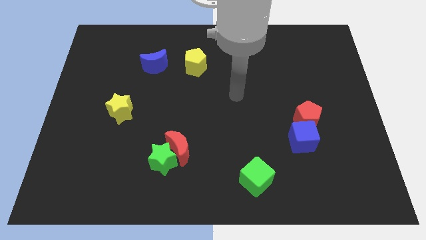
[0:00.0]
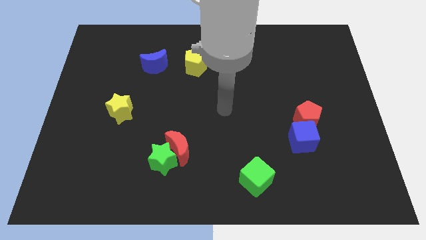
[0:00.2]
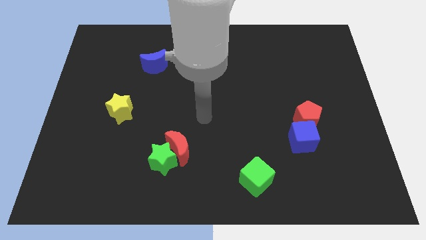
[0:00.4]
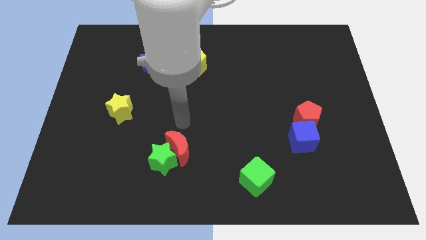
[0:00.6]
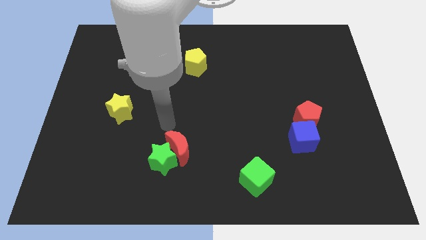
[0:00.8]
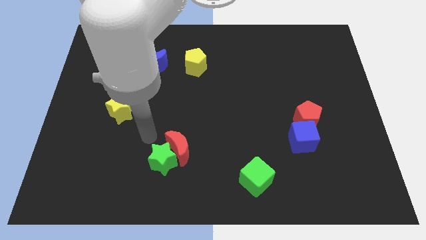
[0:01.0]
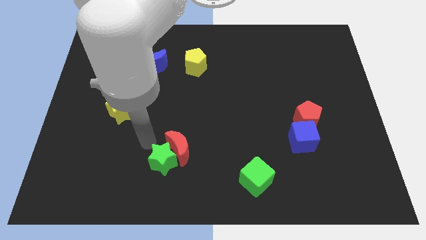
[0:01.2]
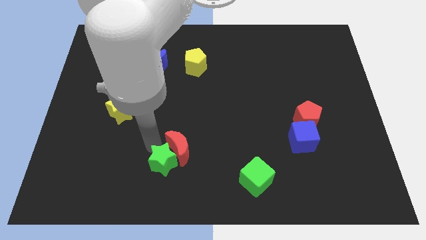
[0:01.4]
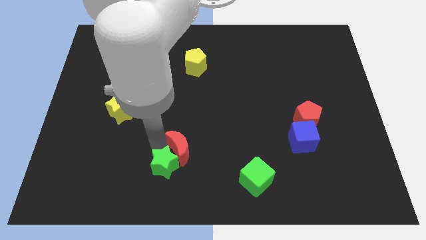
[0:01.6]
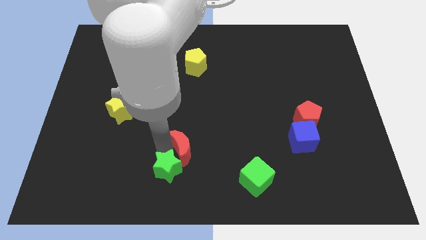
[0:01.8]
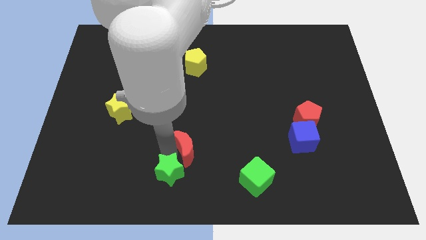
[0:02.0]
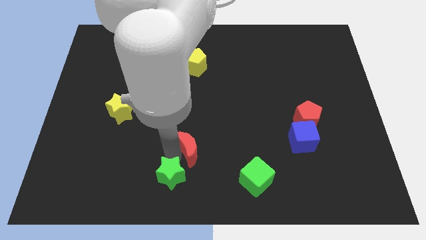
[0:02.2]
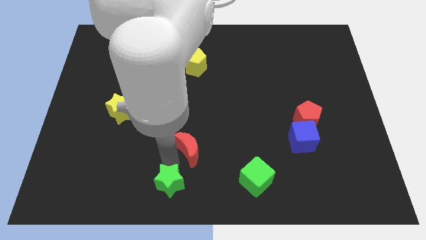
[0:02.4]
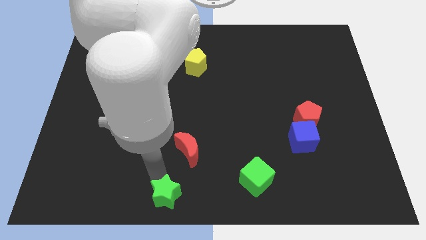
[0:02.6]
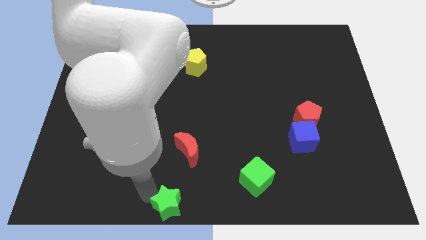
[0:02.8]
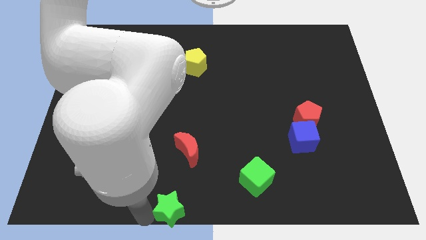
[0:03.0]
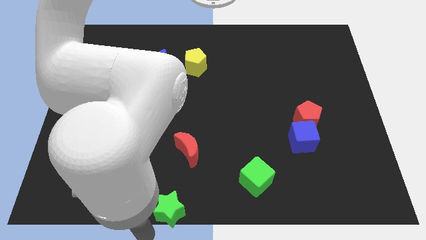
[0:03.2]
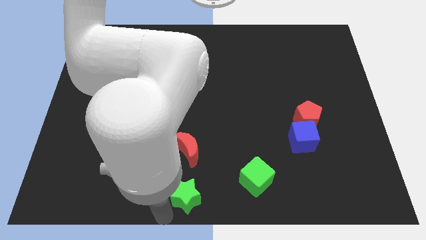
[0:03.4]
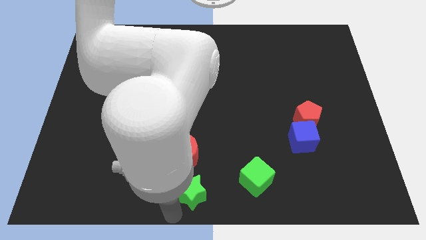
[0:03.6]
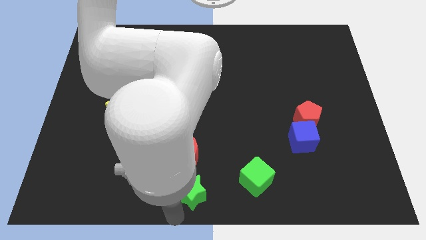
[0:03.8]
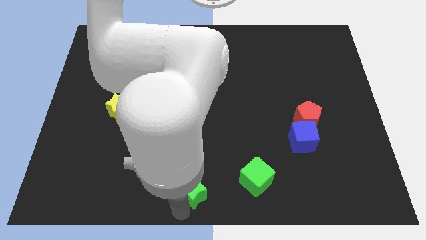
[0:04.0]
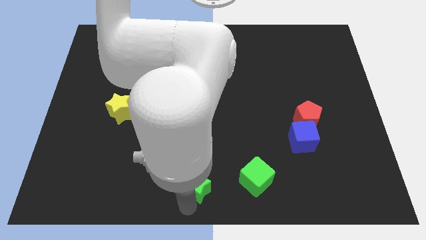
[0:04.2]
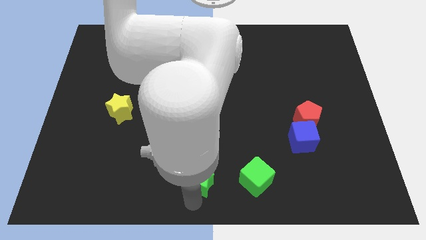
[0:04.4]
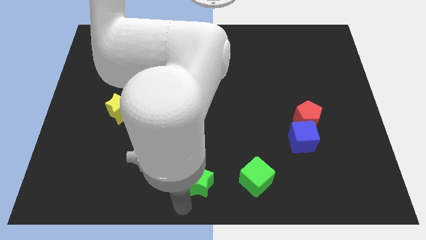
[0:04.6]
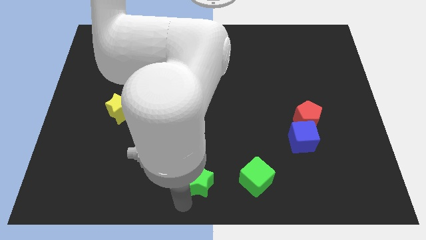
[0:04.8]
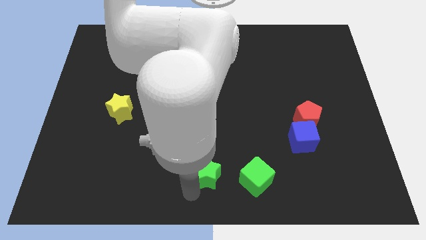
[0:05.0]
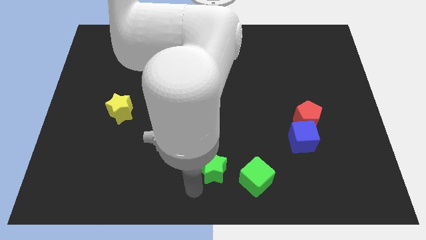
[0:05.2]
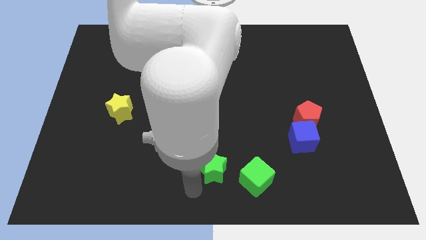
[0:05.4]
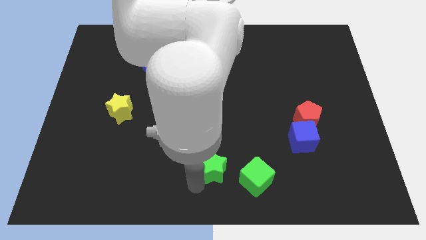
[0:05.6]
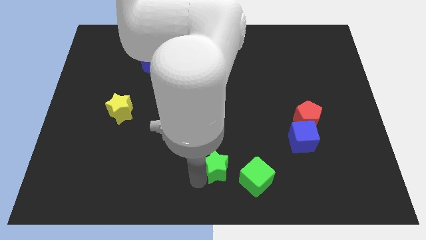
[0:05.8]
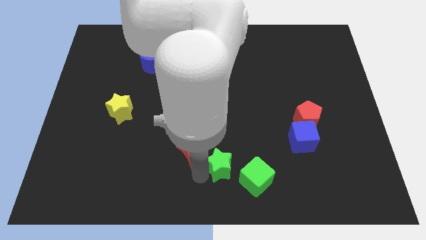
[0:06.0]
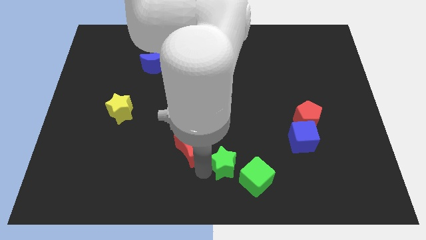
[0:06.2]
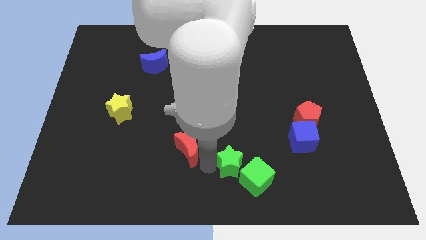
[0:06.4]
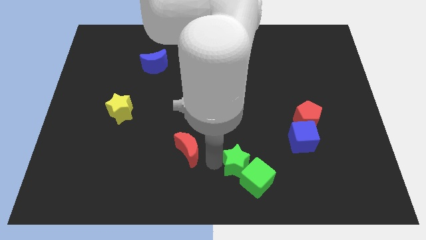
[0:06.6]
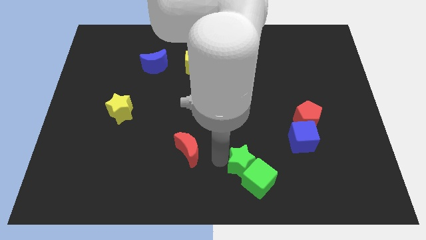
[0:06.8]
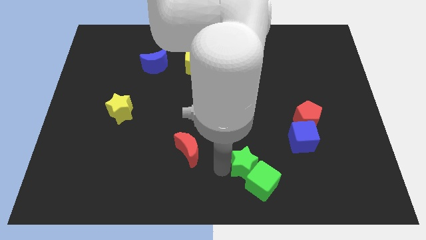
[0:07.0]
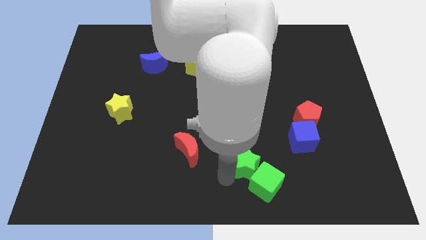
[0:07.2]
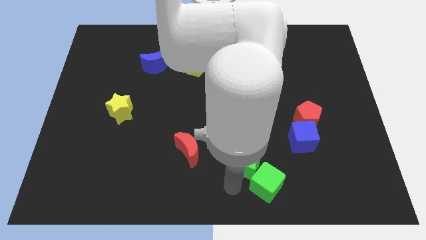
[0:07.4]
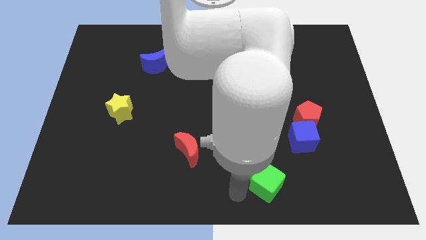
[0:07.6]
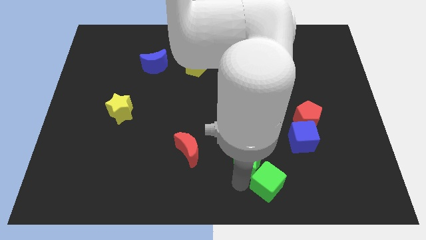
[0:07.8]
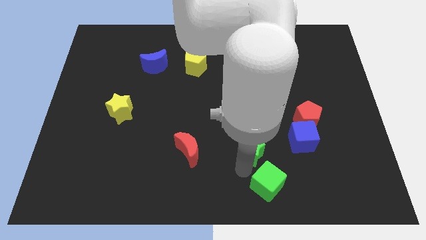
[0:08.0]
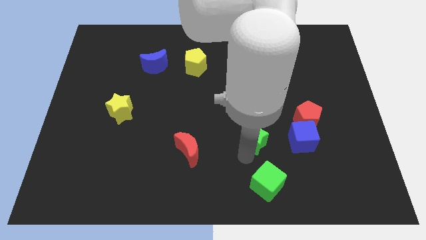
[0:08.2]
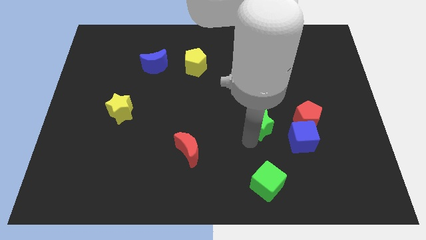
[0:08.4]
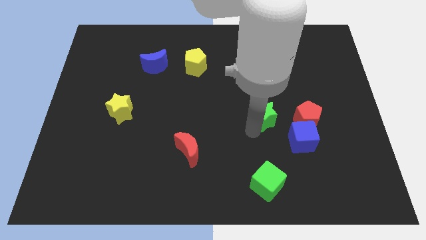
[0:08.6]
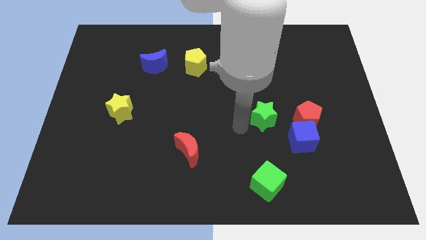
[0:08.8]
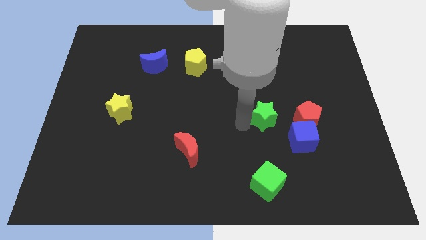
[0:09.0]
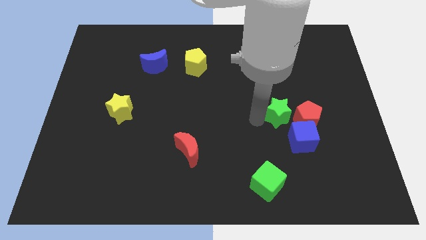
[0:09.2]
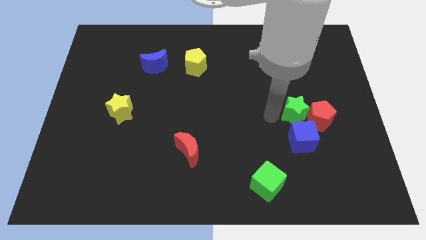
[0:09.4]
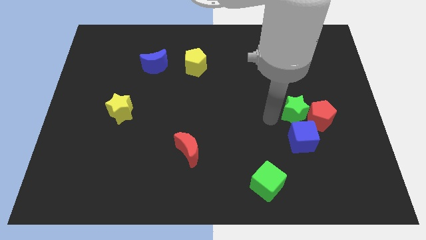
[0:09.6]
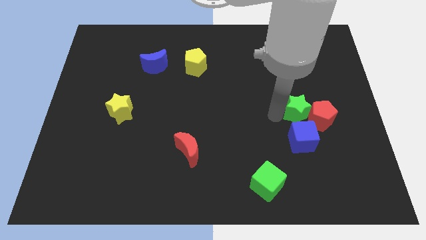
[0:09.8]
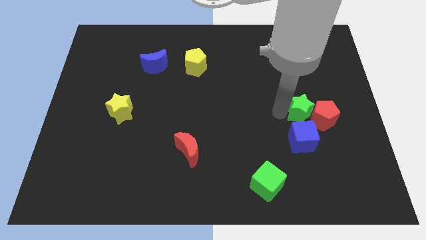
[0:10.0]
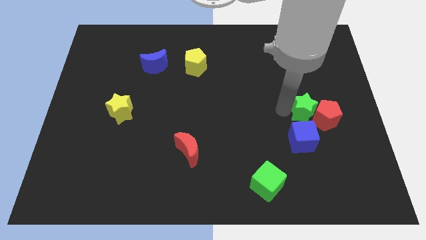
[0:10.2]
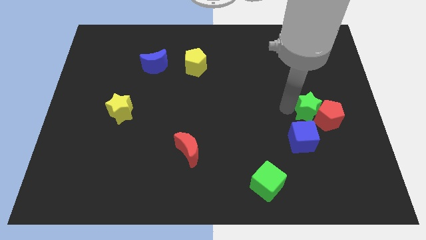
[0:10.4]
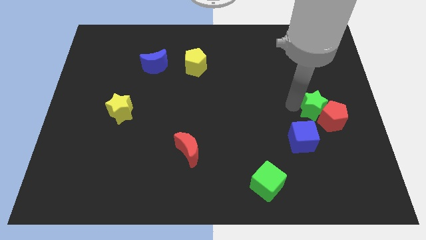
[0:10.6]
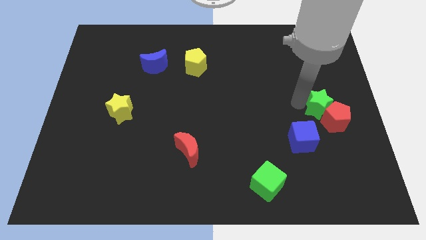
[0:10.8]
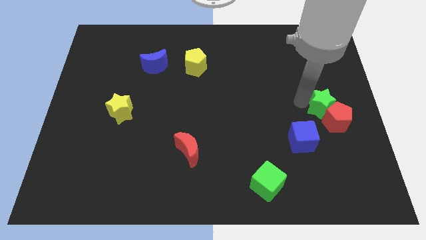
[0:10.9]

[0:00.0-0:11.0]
push the green star to the center right

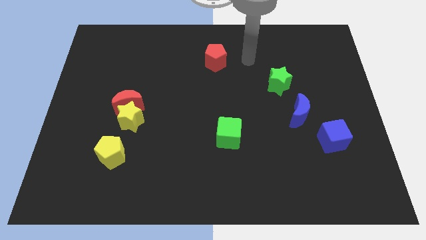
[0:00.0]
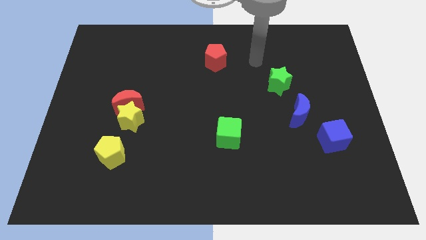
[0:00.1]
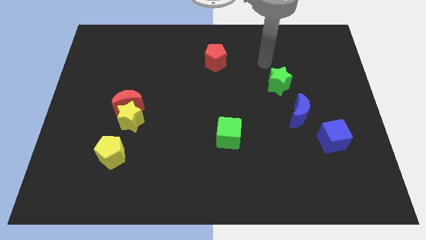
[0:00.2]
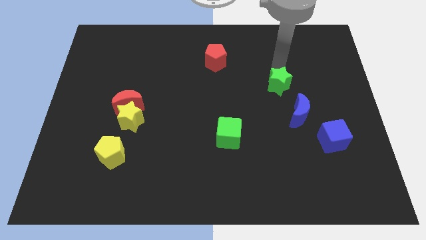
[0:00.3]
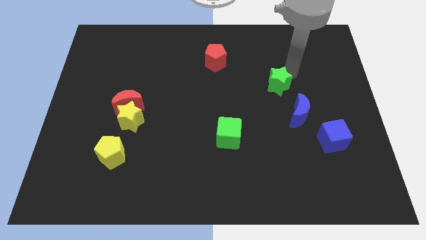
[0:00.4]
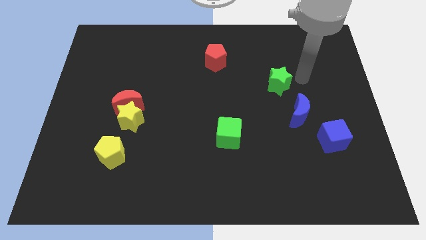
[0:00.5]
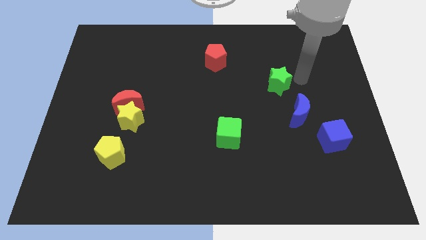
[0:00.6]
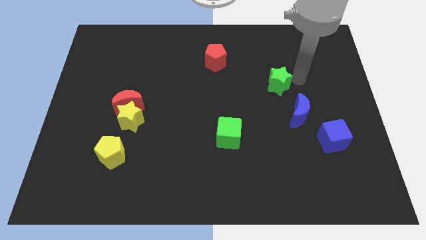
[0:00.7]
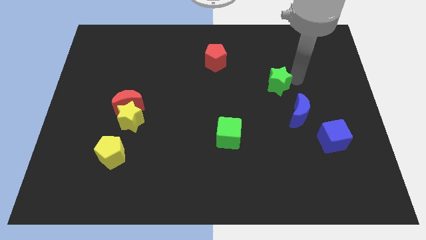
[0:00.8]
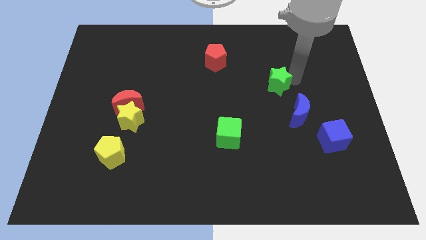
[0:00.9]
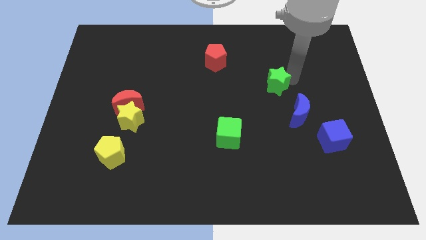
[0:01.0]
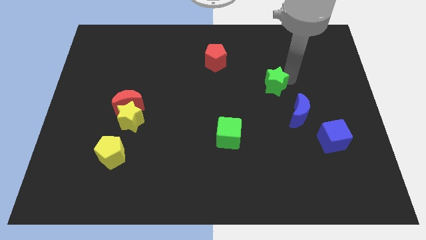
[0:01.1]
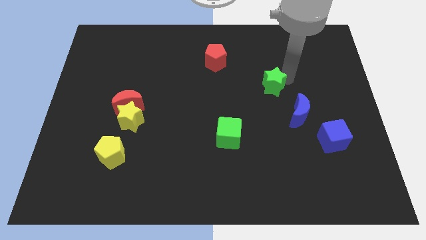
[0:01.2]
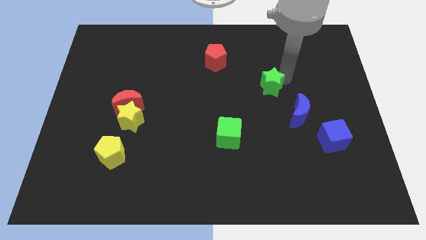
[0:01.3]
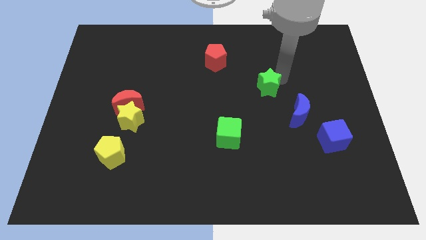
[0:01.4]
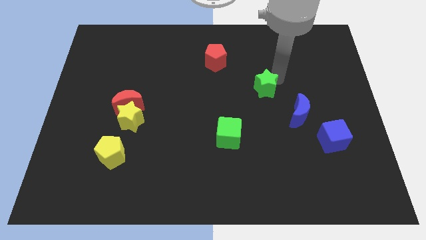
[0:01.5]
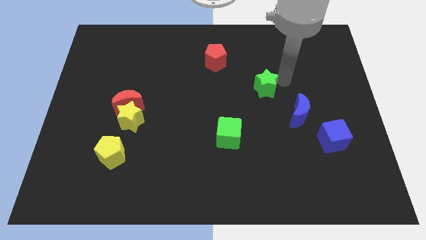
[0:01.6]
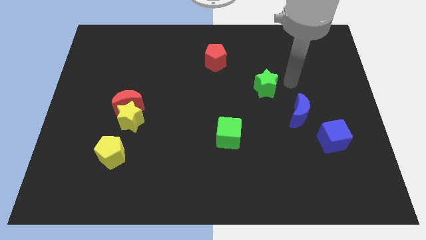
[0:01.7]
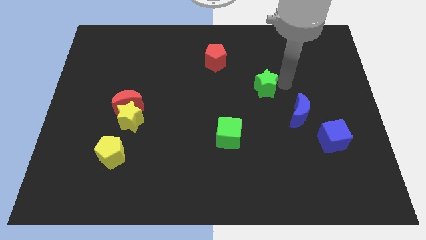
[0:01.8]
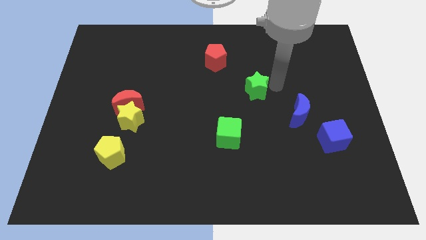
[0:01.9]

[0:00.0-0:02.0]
push the green star to the center
